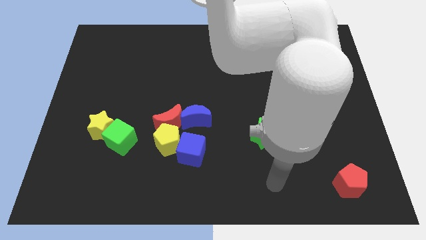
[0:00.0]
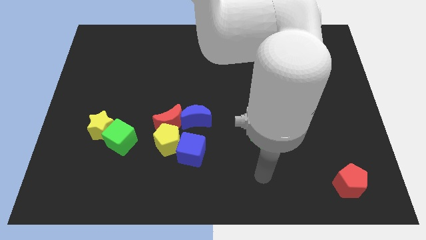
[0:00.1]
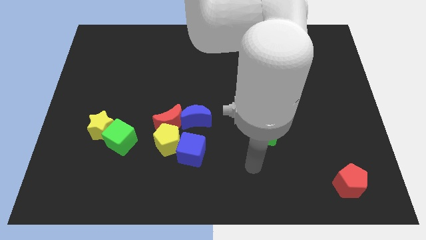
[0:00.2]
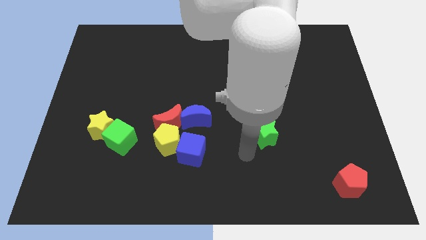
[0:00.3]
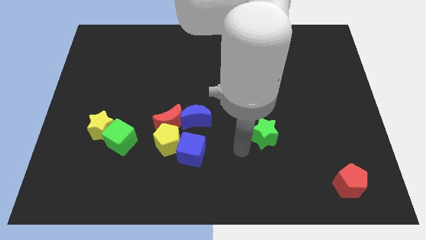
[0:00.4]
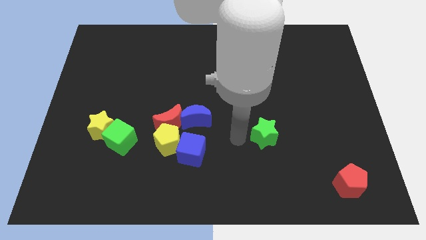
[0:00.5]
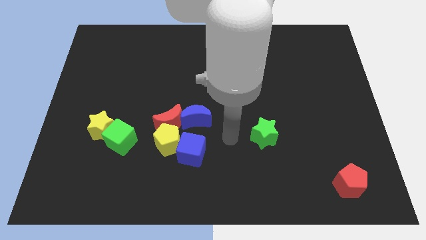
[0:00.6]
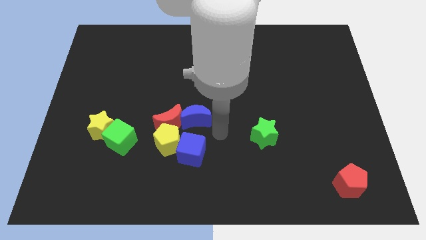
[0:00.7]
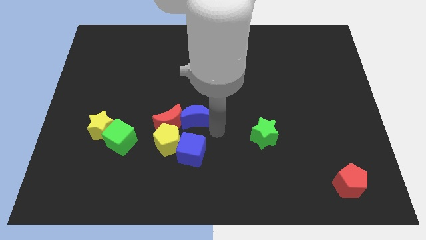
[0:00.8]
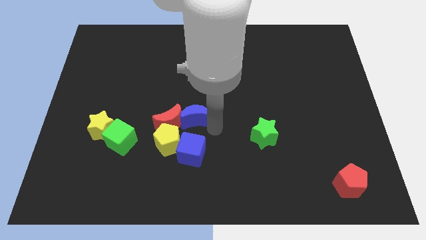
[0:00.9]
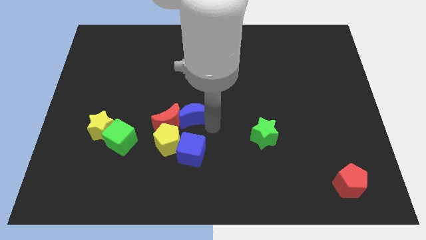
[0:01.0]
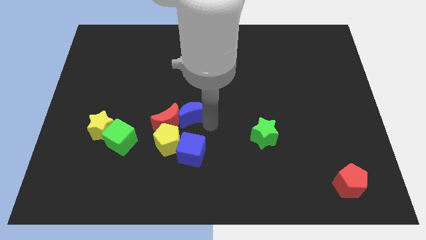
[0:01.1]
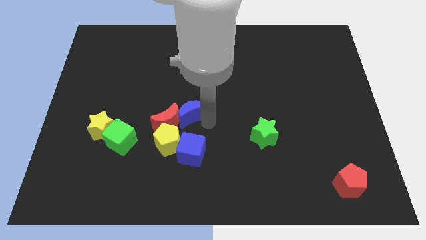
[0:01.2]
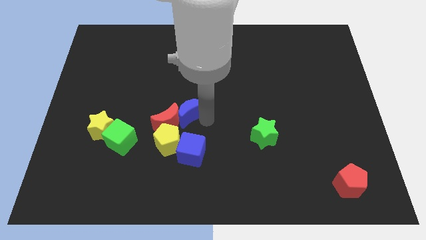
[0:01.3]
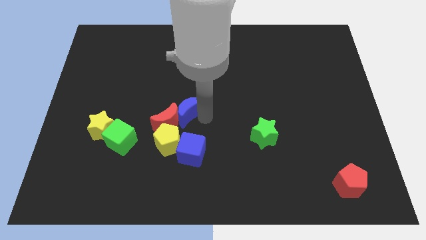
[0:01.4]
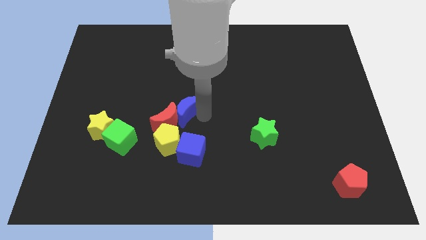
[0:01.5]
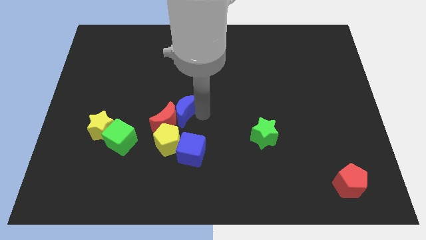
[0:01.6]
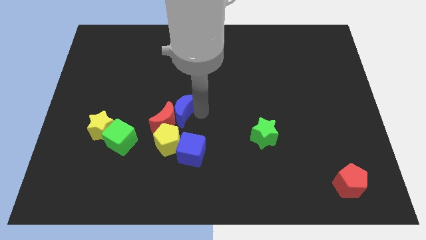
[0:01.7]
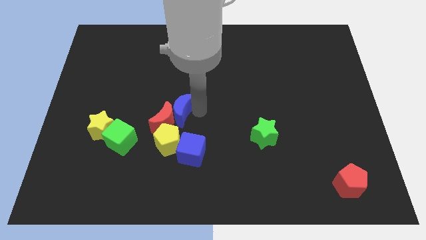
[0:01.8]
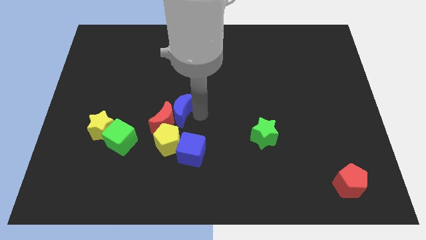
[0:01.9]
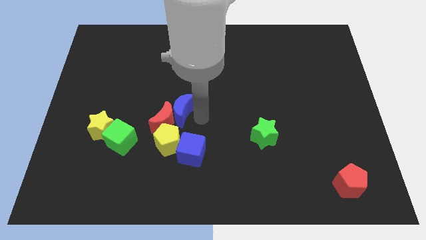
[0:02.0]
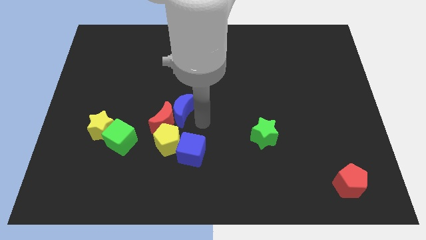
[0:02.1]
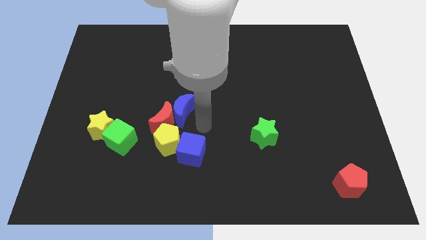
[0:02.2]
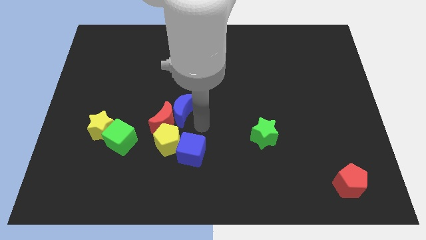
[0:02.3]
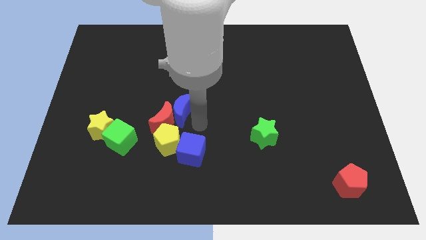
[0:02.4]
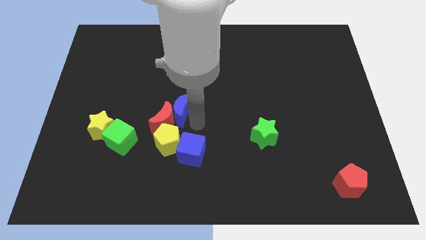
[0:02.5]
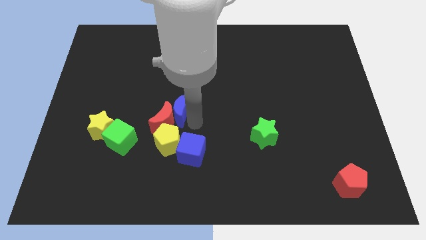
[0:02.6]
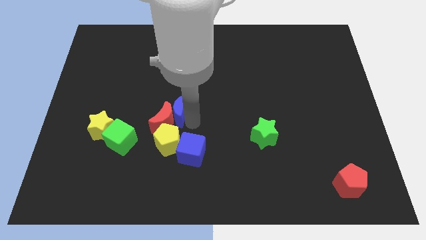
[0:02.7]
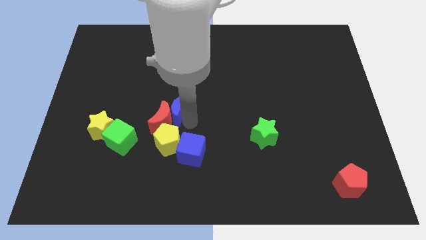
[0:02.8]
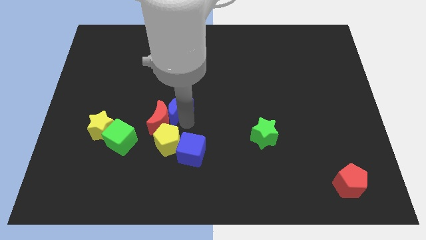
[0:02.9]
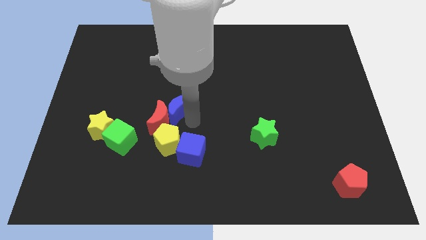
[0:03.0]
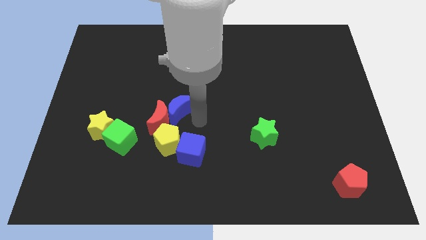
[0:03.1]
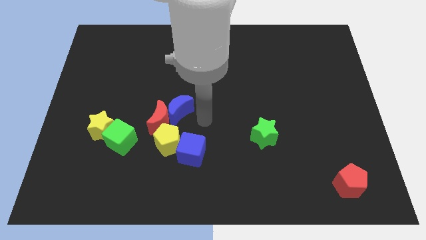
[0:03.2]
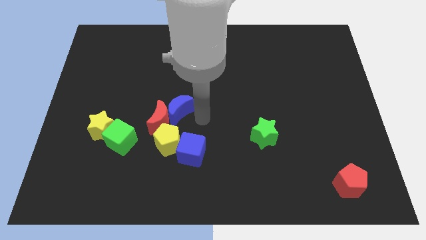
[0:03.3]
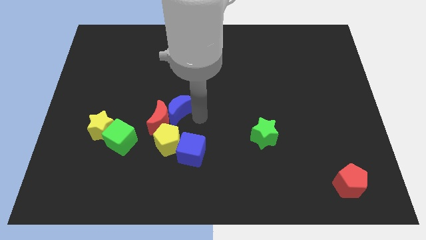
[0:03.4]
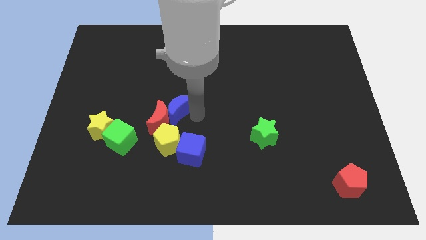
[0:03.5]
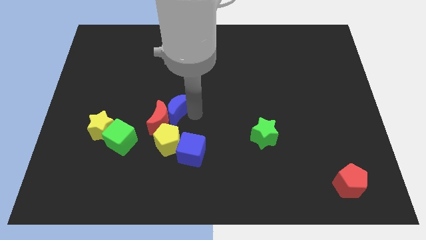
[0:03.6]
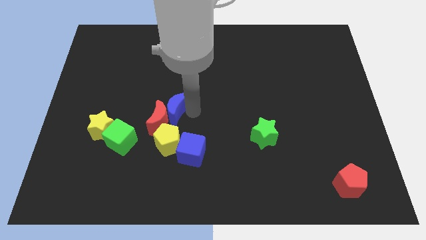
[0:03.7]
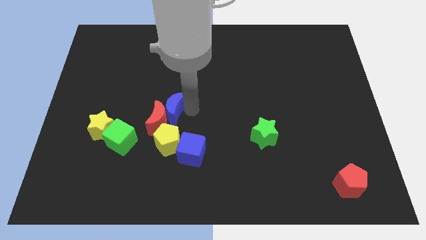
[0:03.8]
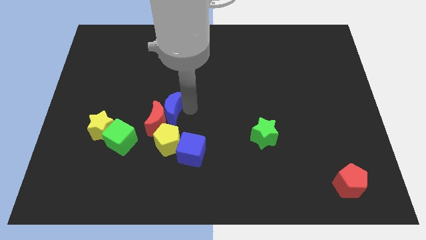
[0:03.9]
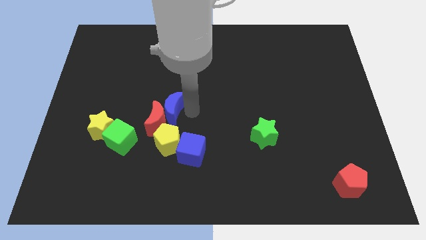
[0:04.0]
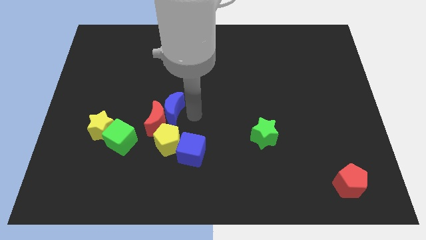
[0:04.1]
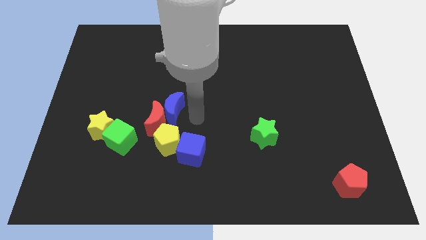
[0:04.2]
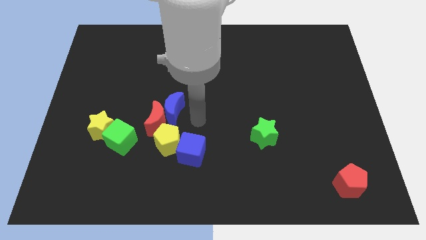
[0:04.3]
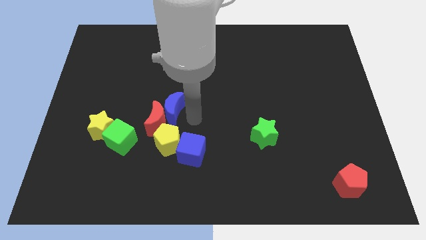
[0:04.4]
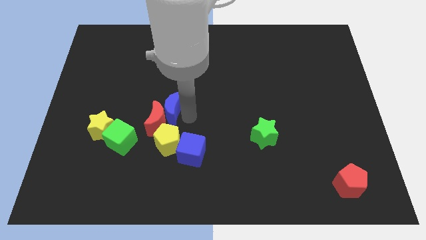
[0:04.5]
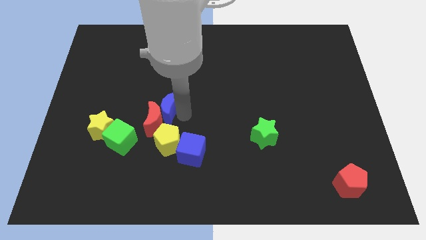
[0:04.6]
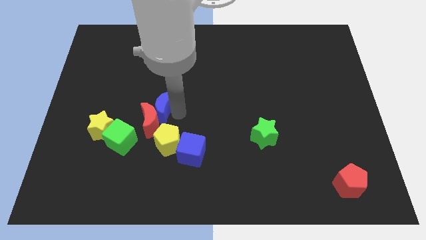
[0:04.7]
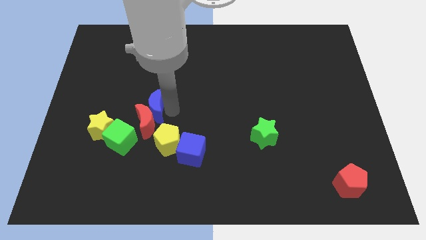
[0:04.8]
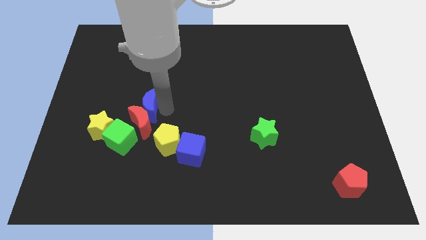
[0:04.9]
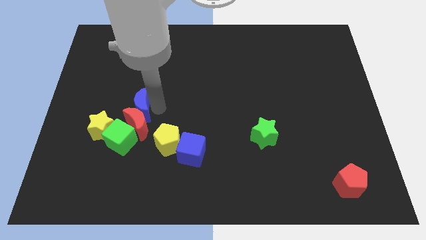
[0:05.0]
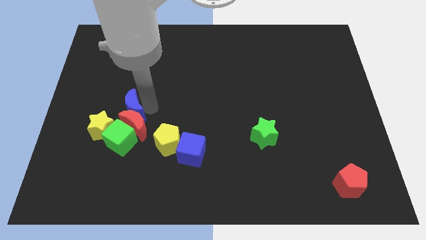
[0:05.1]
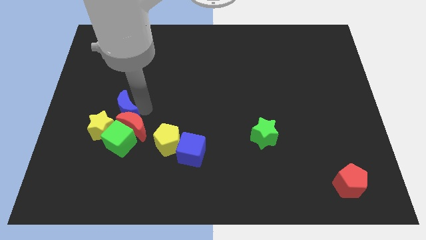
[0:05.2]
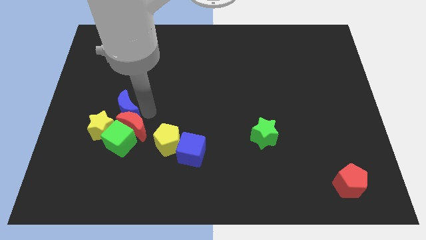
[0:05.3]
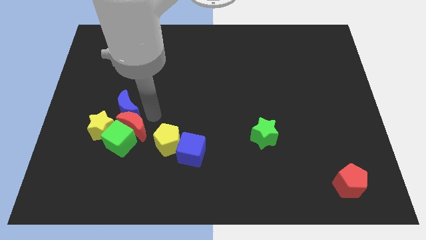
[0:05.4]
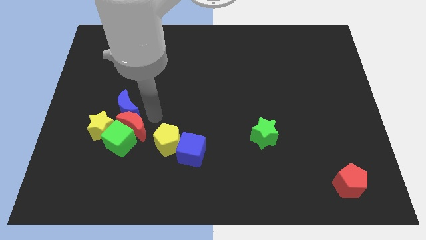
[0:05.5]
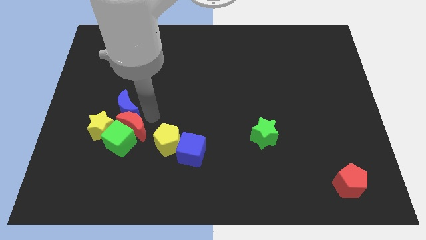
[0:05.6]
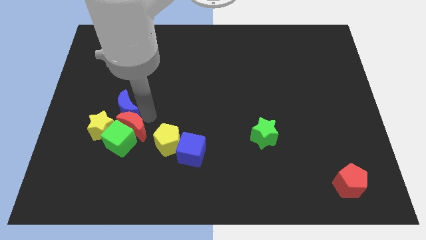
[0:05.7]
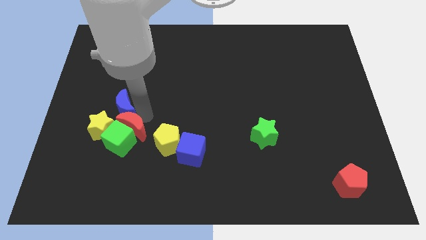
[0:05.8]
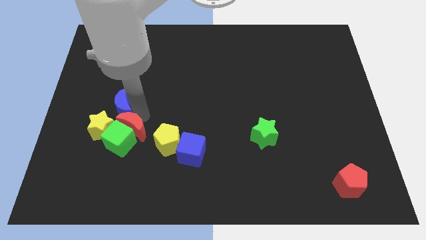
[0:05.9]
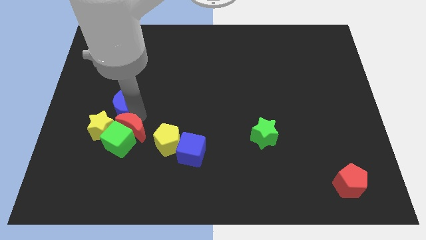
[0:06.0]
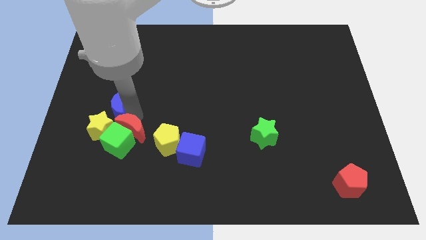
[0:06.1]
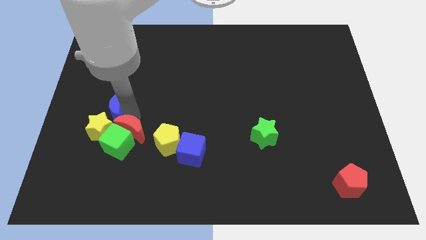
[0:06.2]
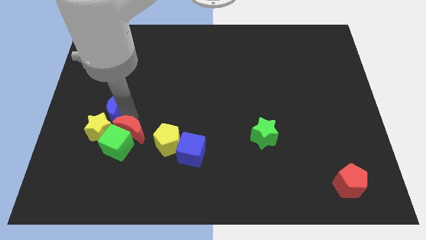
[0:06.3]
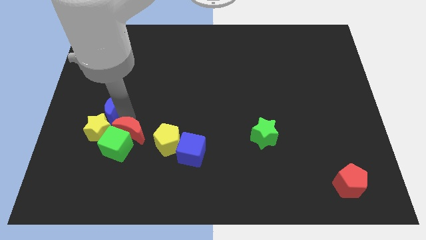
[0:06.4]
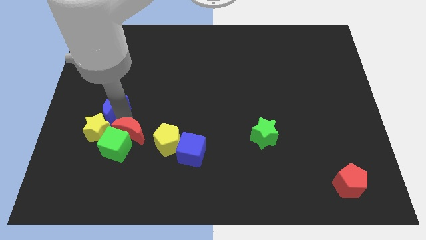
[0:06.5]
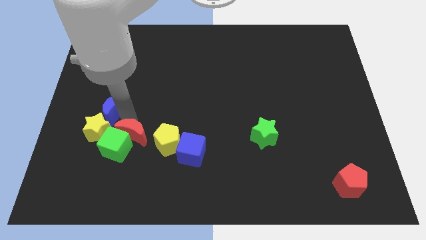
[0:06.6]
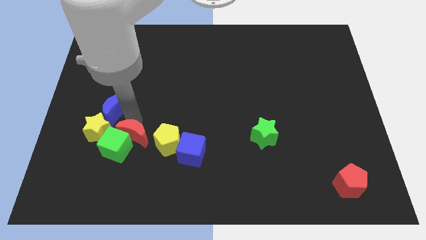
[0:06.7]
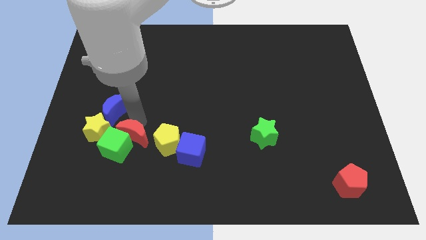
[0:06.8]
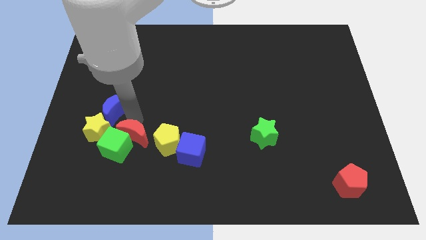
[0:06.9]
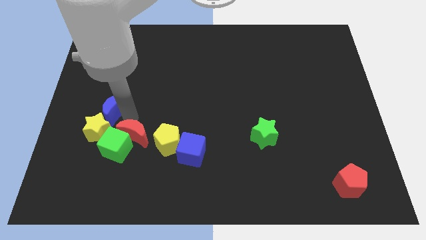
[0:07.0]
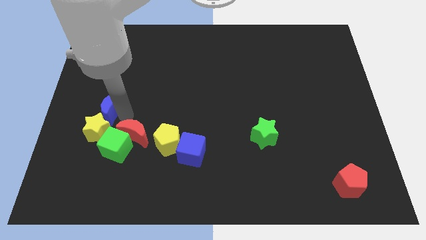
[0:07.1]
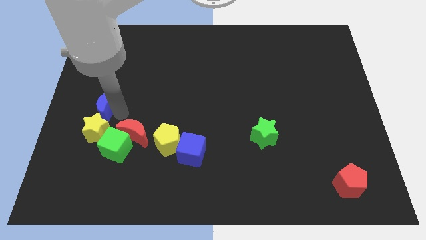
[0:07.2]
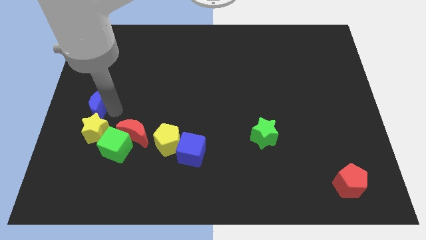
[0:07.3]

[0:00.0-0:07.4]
slide the blue moon to the center left
